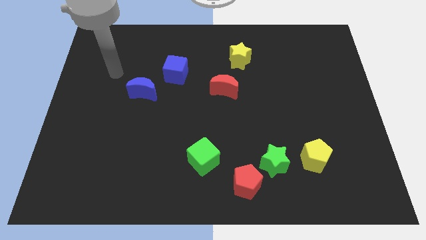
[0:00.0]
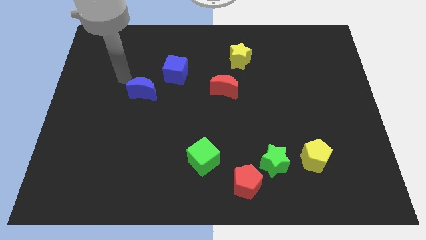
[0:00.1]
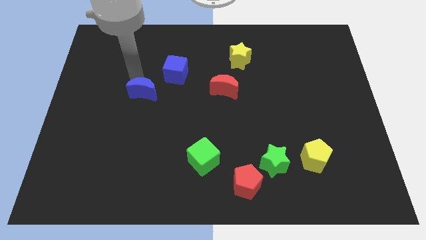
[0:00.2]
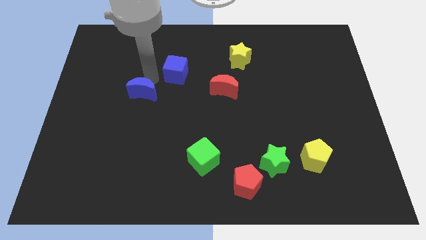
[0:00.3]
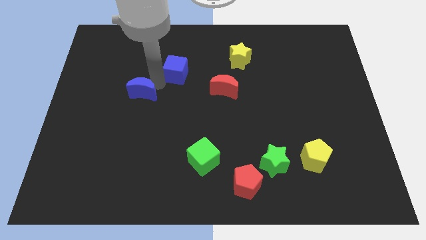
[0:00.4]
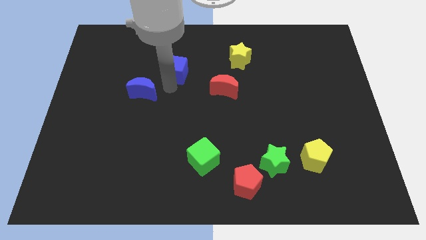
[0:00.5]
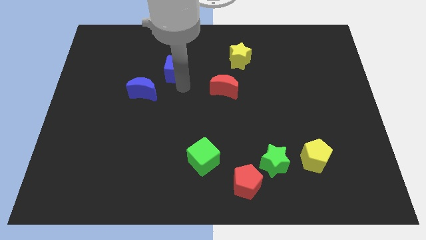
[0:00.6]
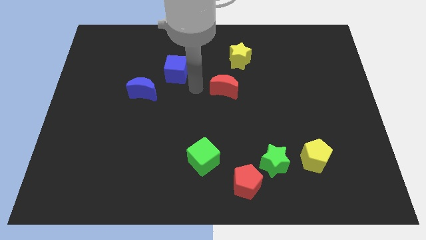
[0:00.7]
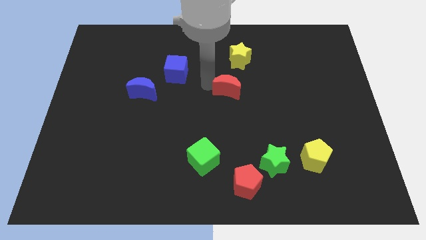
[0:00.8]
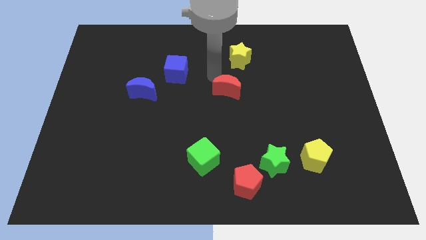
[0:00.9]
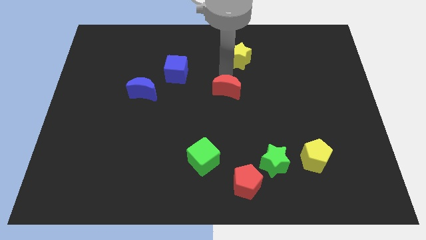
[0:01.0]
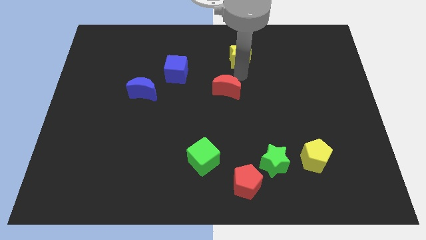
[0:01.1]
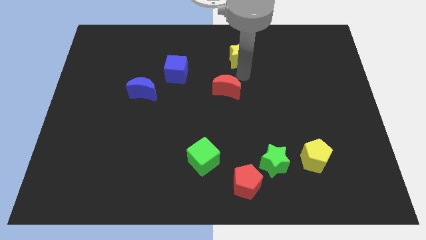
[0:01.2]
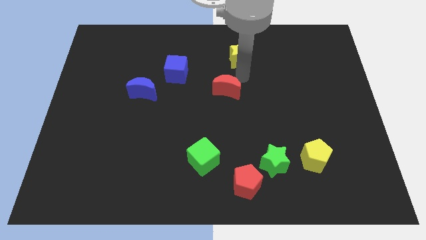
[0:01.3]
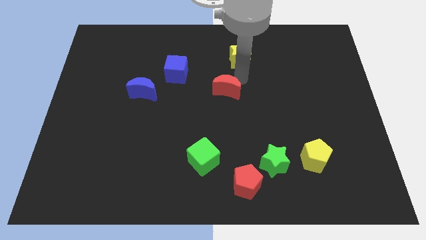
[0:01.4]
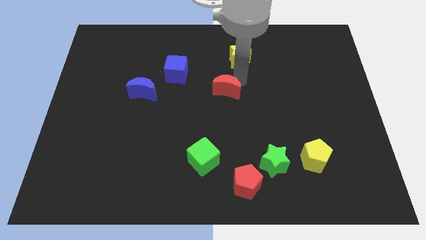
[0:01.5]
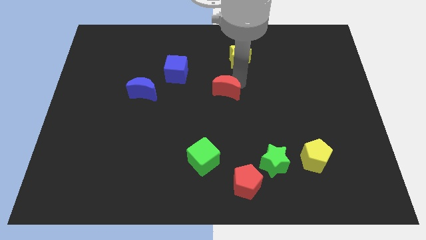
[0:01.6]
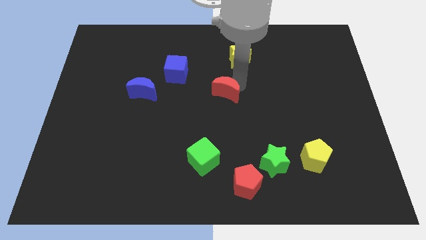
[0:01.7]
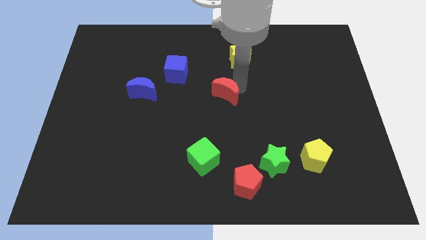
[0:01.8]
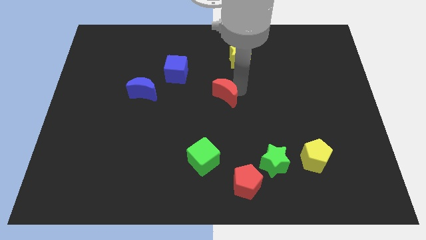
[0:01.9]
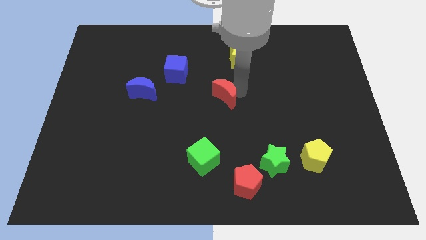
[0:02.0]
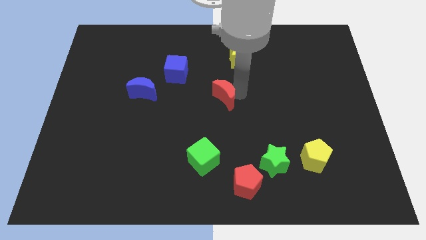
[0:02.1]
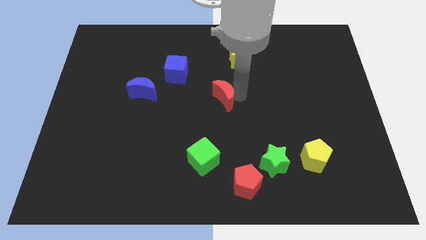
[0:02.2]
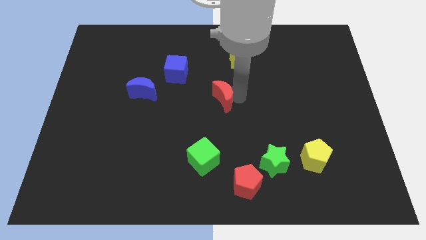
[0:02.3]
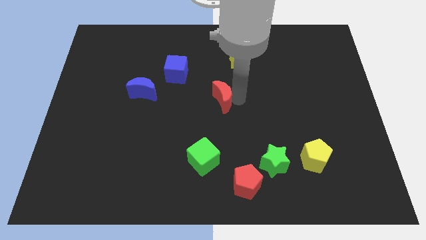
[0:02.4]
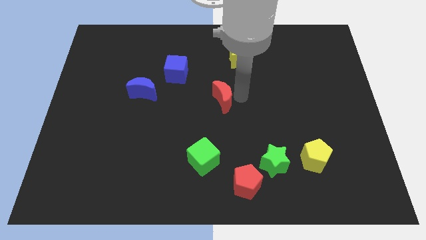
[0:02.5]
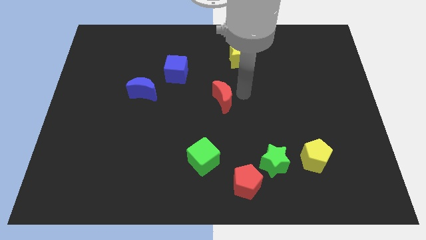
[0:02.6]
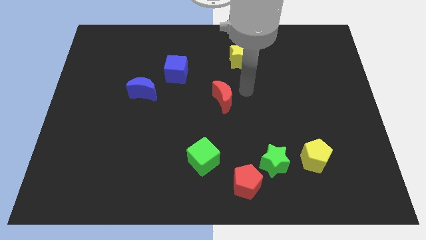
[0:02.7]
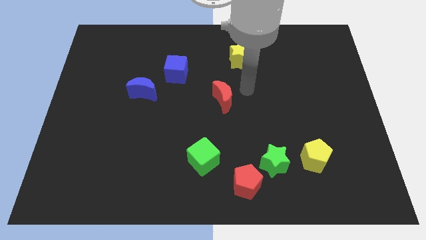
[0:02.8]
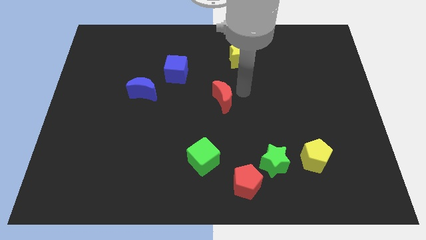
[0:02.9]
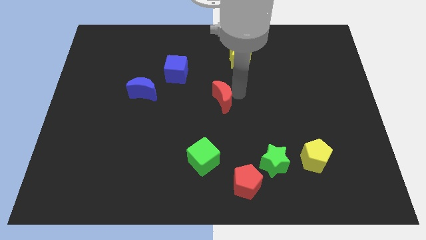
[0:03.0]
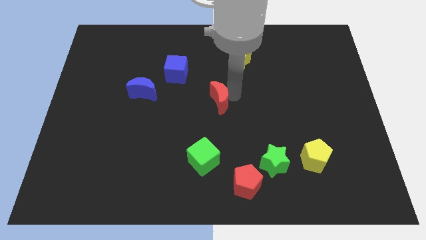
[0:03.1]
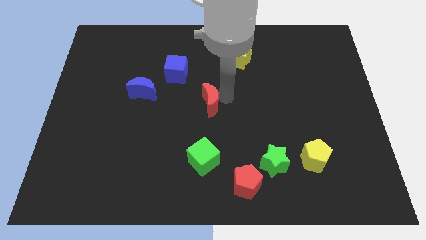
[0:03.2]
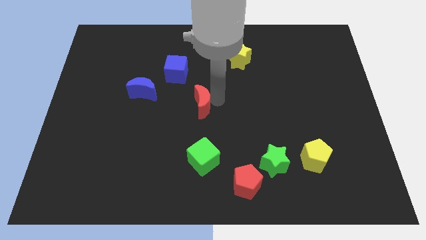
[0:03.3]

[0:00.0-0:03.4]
move the red moon a little down and to the left

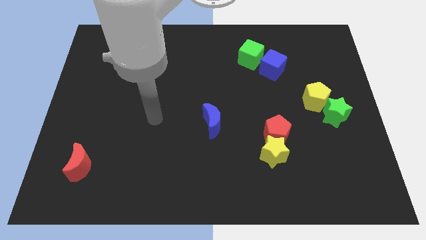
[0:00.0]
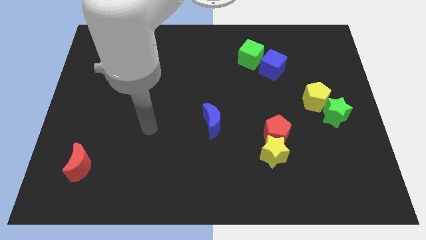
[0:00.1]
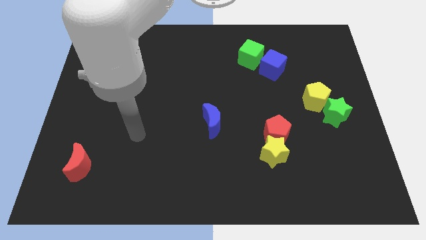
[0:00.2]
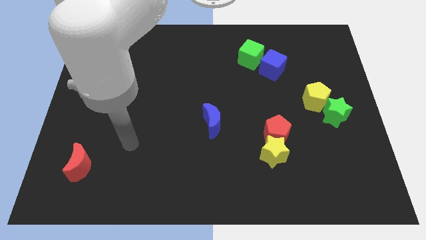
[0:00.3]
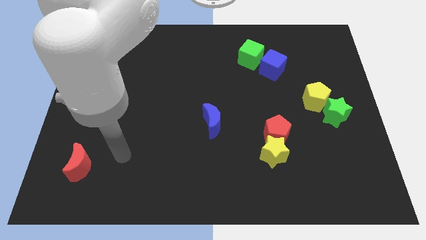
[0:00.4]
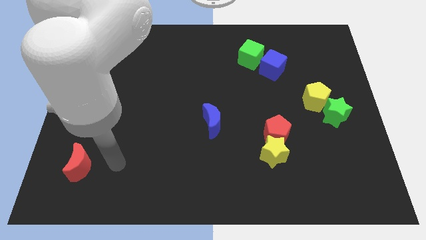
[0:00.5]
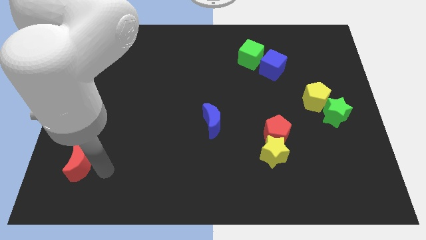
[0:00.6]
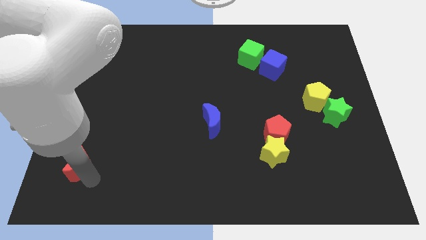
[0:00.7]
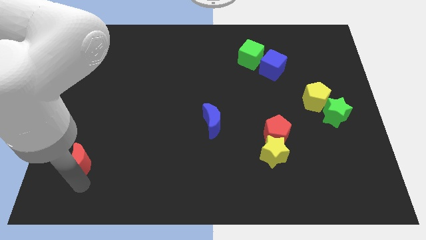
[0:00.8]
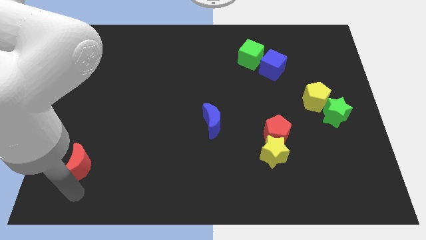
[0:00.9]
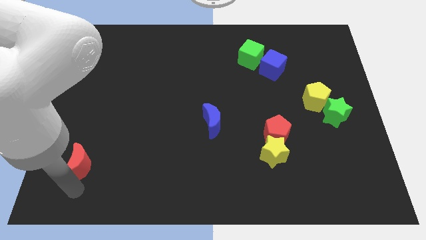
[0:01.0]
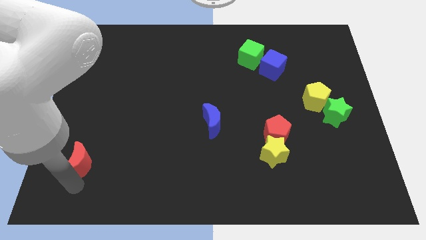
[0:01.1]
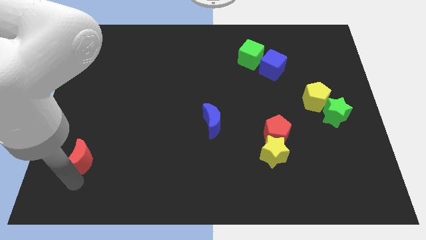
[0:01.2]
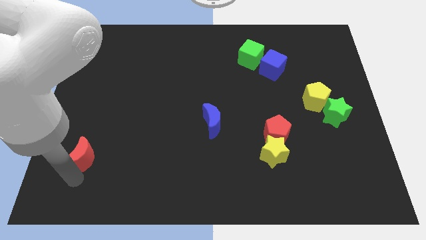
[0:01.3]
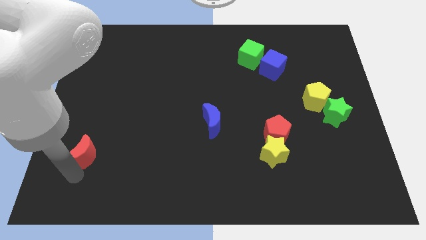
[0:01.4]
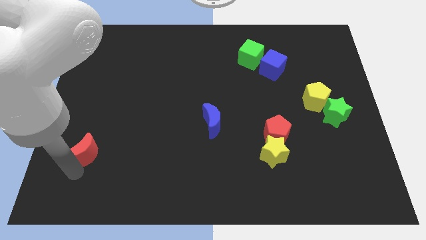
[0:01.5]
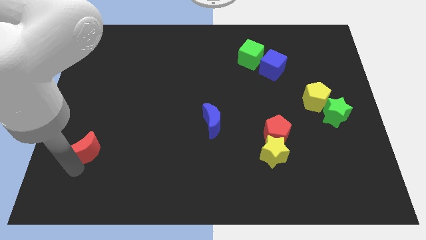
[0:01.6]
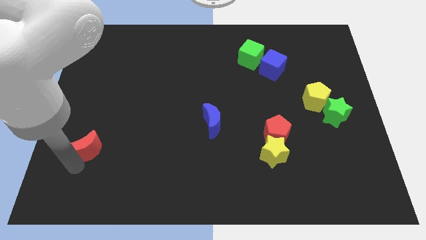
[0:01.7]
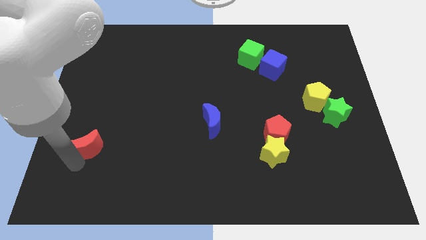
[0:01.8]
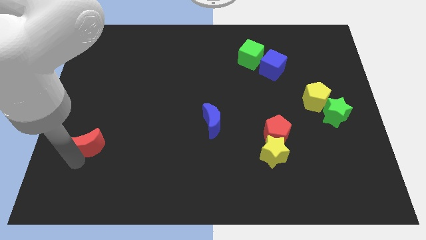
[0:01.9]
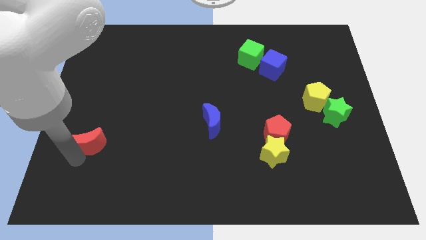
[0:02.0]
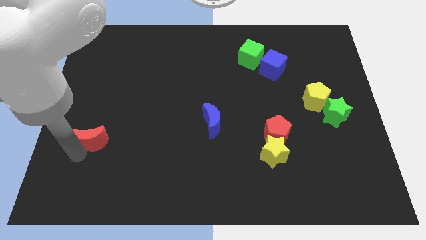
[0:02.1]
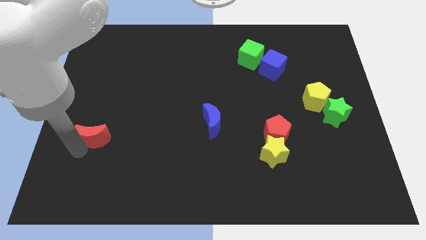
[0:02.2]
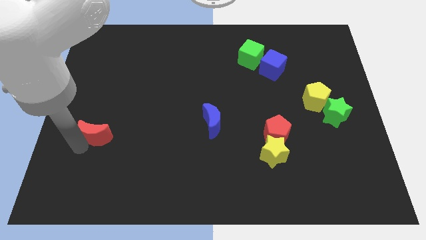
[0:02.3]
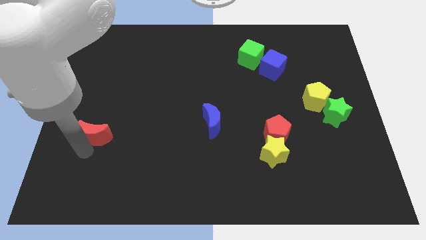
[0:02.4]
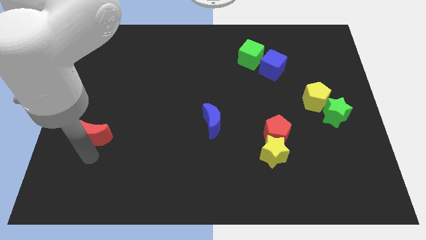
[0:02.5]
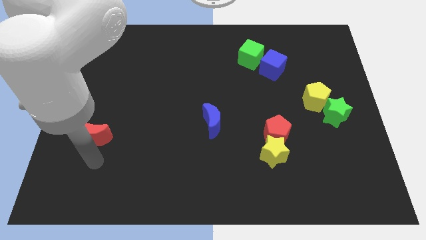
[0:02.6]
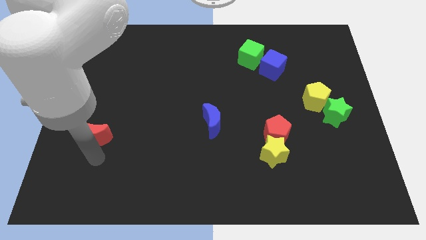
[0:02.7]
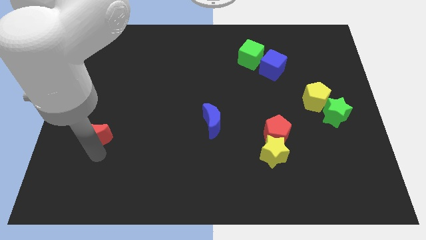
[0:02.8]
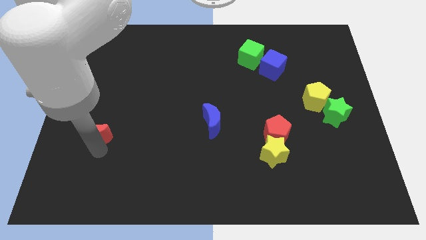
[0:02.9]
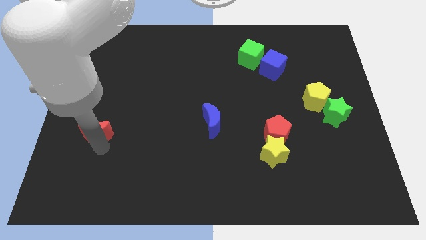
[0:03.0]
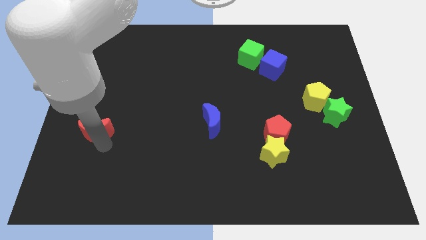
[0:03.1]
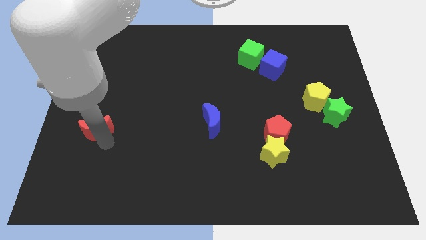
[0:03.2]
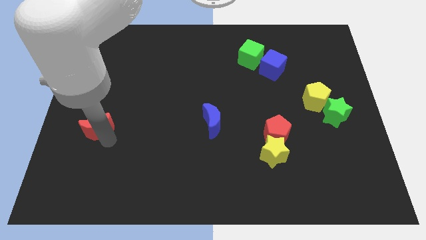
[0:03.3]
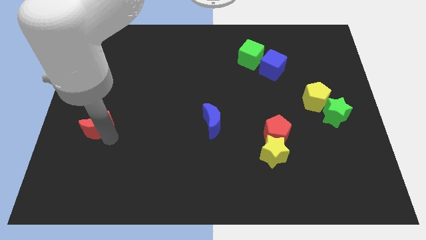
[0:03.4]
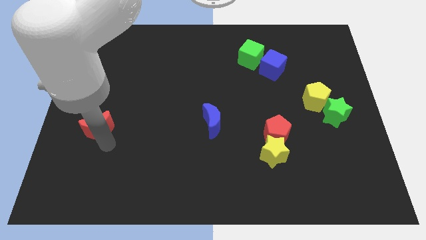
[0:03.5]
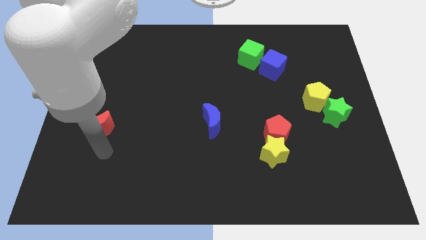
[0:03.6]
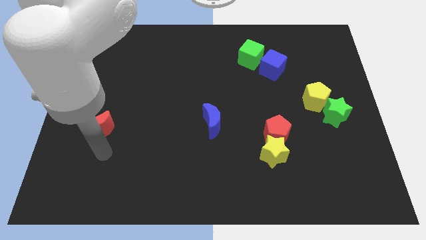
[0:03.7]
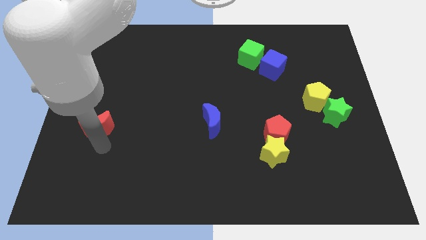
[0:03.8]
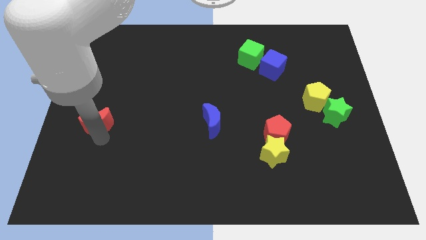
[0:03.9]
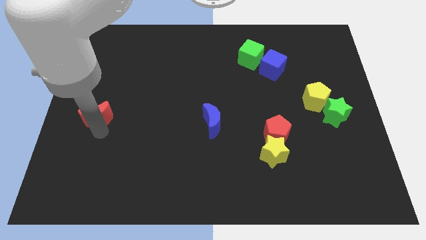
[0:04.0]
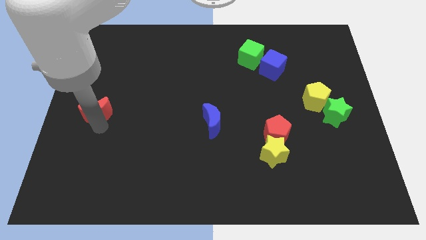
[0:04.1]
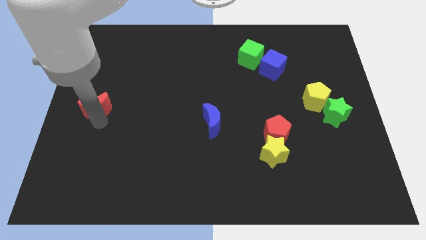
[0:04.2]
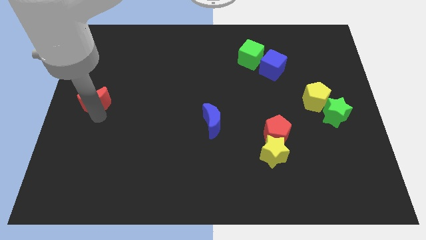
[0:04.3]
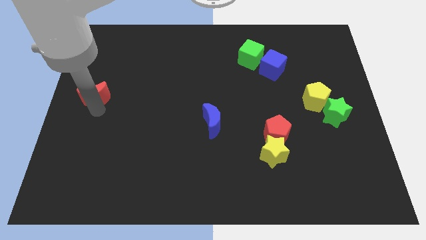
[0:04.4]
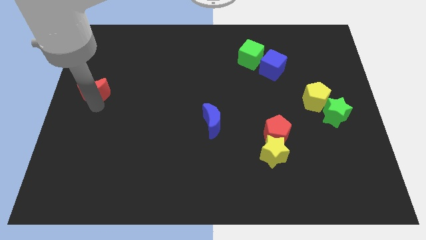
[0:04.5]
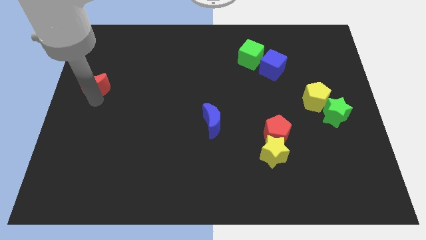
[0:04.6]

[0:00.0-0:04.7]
move the red moon up
